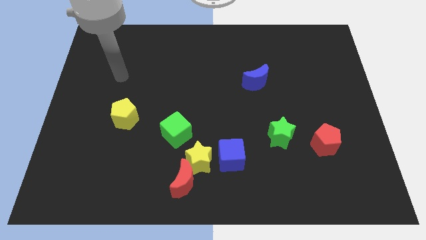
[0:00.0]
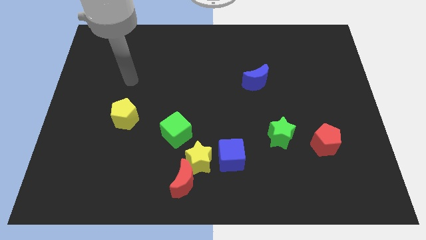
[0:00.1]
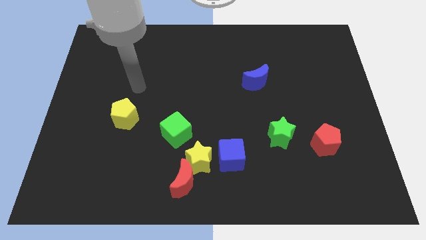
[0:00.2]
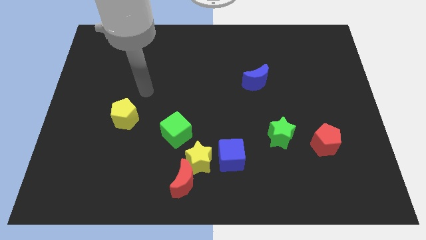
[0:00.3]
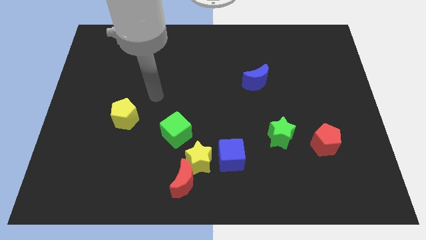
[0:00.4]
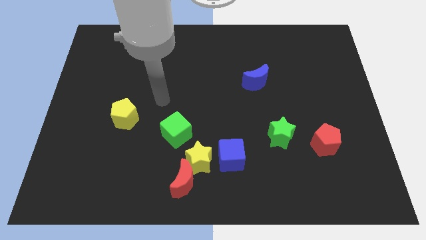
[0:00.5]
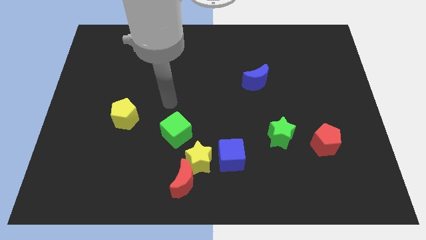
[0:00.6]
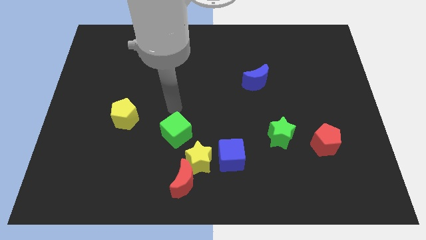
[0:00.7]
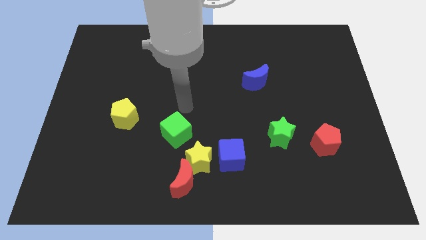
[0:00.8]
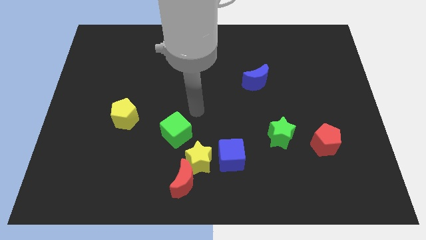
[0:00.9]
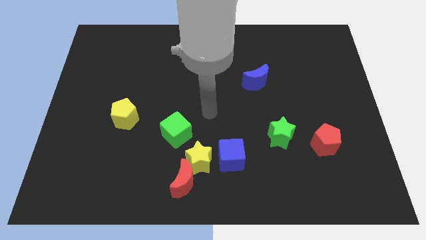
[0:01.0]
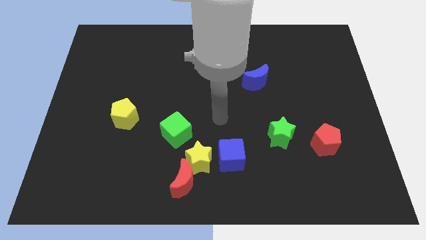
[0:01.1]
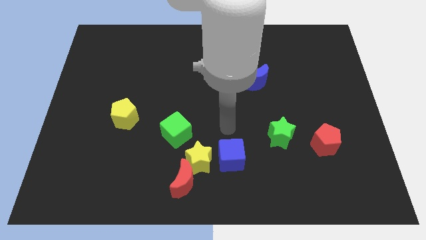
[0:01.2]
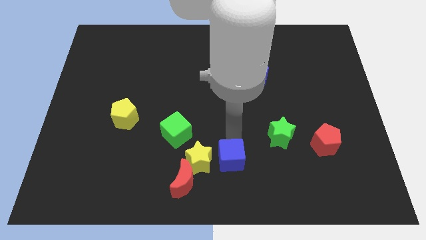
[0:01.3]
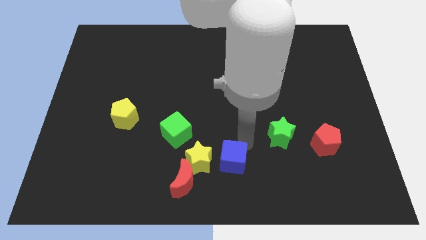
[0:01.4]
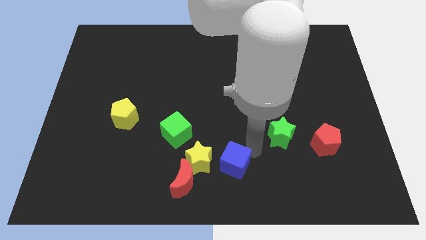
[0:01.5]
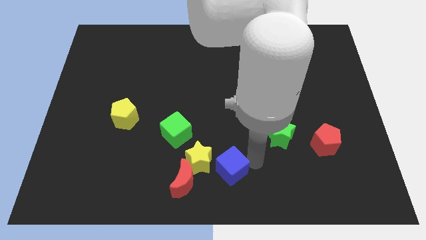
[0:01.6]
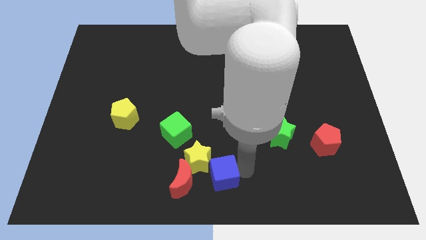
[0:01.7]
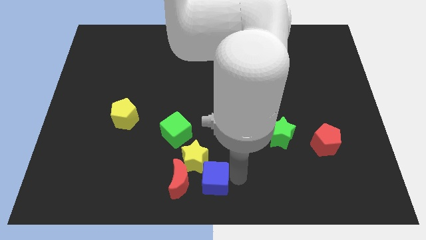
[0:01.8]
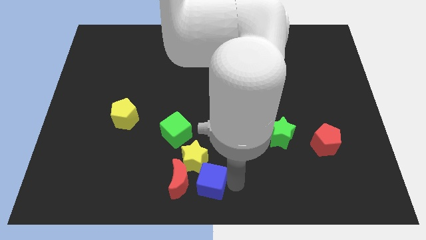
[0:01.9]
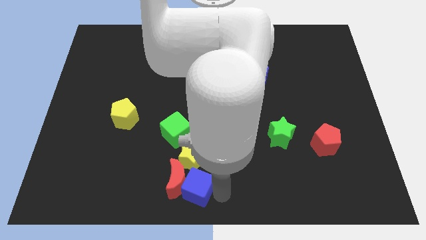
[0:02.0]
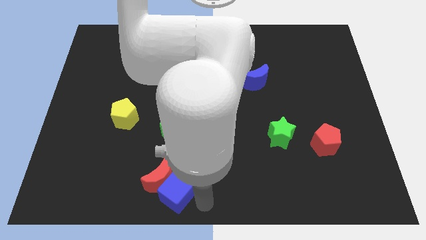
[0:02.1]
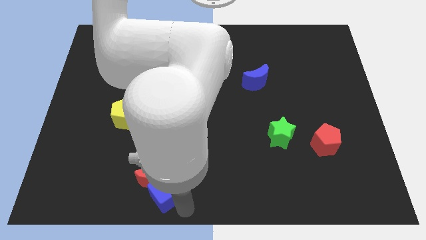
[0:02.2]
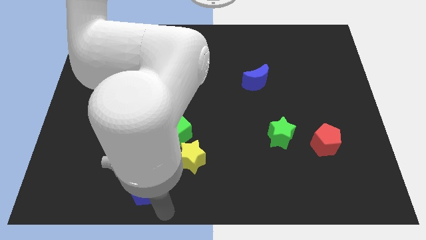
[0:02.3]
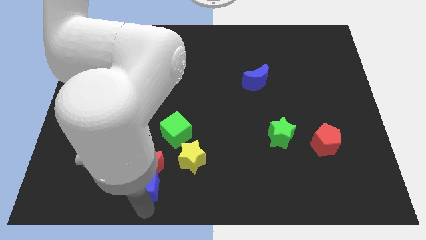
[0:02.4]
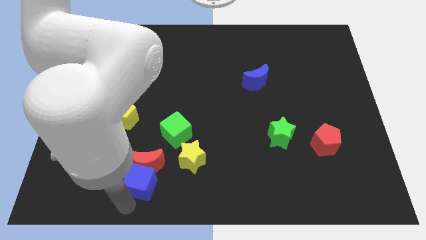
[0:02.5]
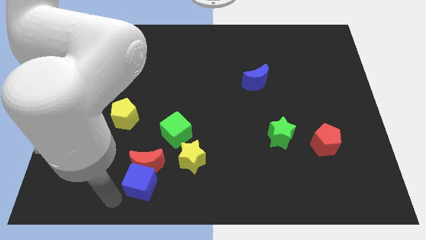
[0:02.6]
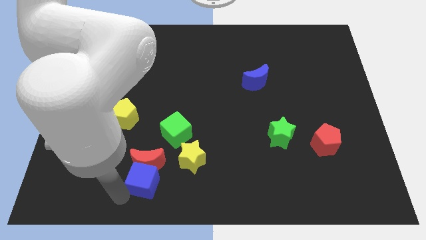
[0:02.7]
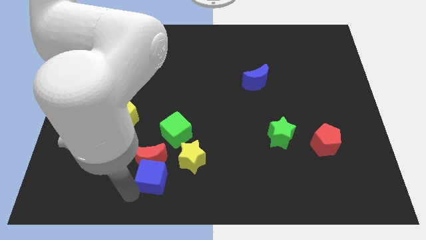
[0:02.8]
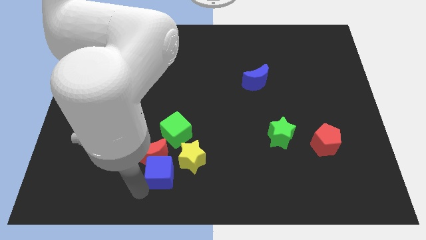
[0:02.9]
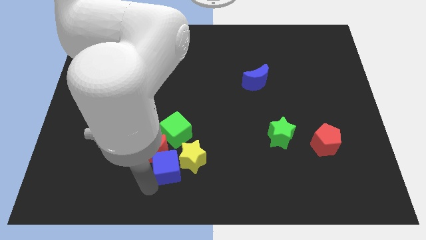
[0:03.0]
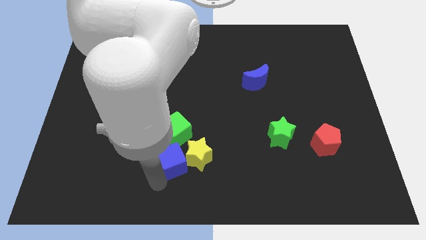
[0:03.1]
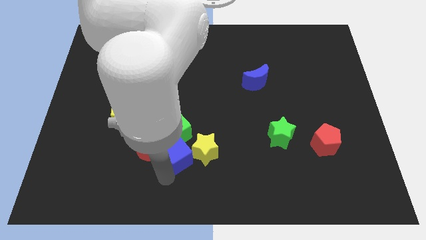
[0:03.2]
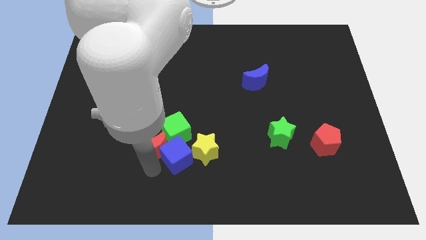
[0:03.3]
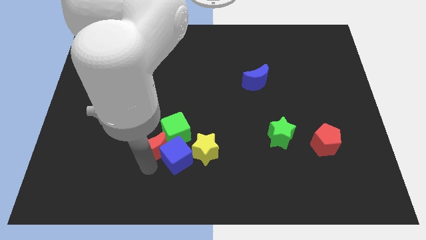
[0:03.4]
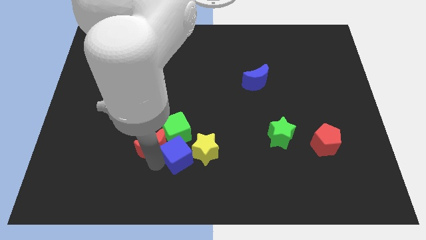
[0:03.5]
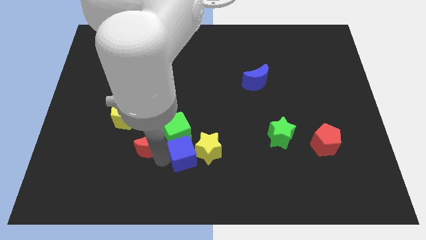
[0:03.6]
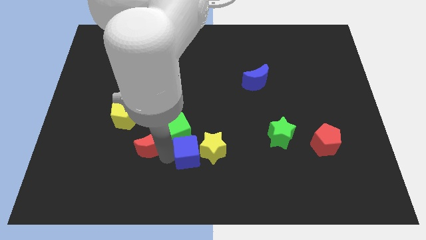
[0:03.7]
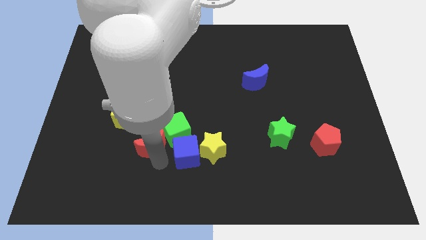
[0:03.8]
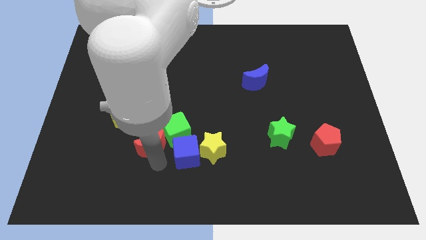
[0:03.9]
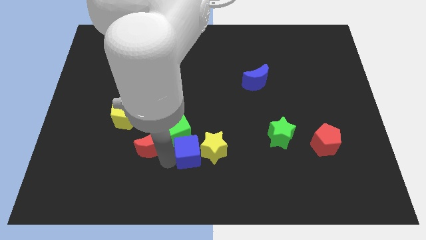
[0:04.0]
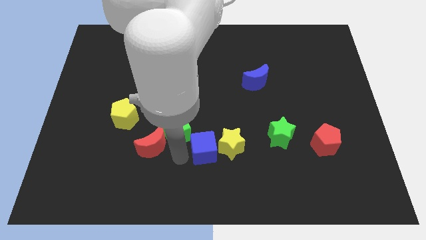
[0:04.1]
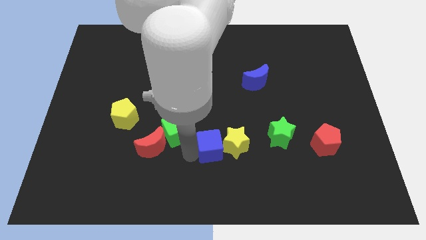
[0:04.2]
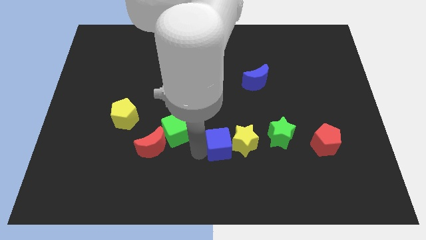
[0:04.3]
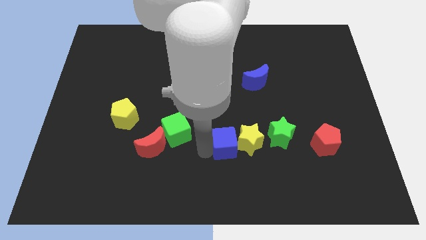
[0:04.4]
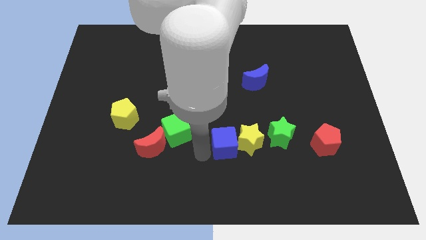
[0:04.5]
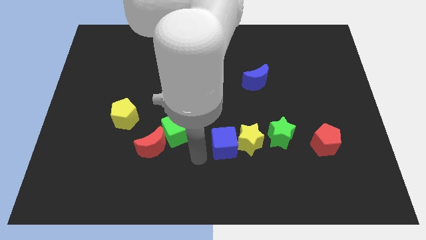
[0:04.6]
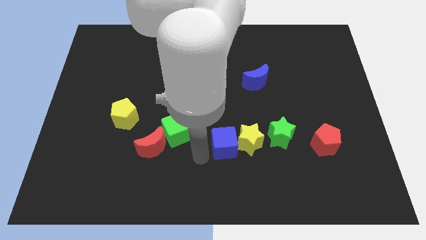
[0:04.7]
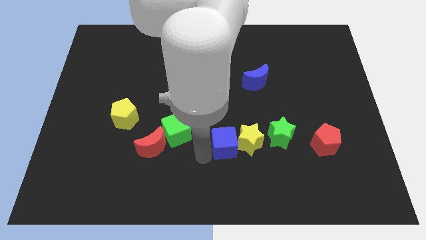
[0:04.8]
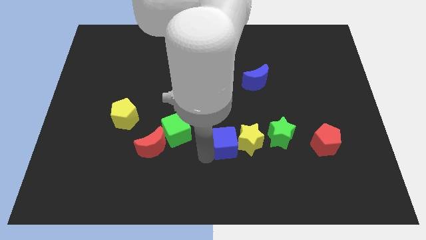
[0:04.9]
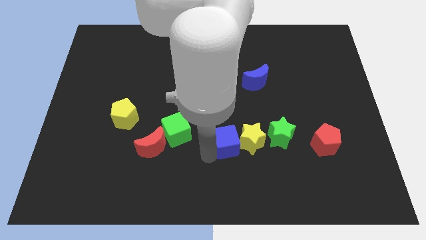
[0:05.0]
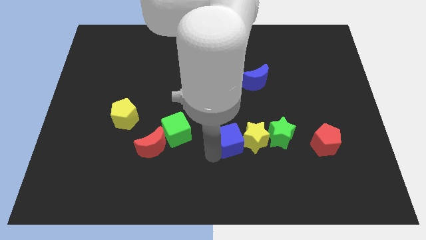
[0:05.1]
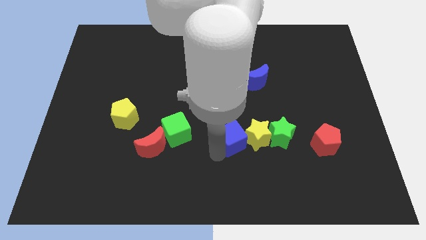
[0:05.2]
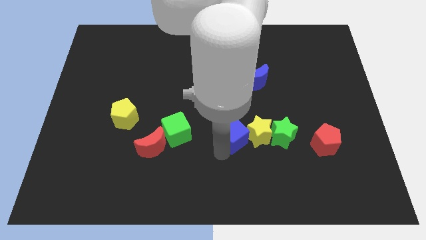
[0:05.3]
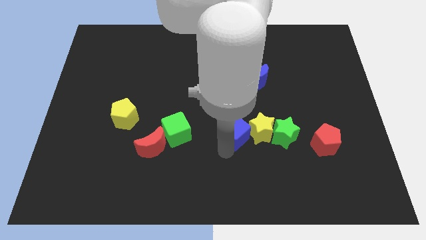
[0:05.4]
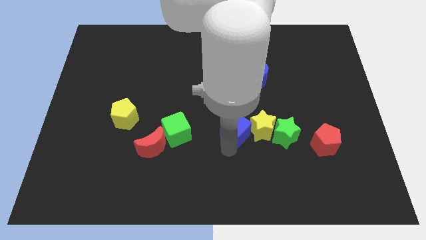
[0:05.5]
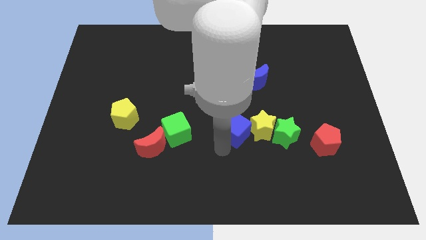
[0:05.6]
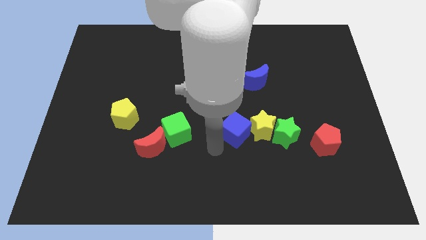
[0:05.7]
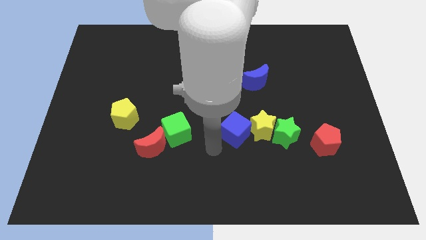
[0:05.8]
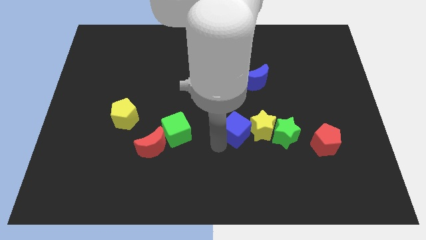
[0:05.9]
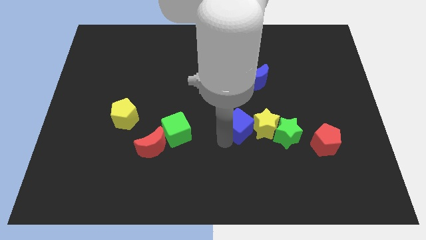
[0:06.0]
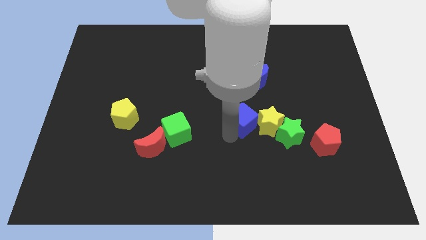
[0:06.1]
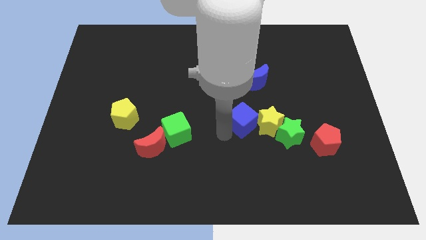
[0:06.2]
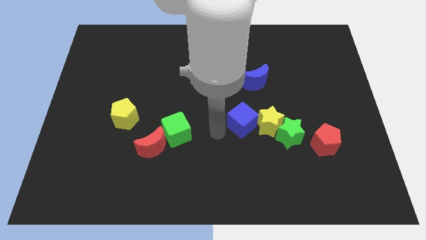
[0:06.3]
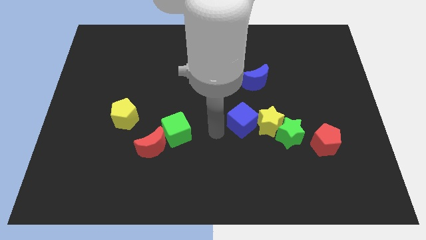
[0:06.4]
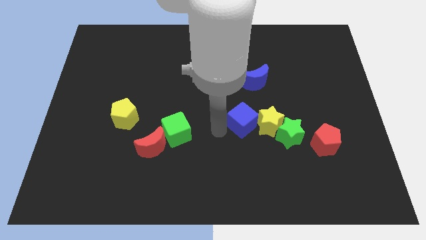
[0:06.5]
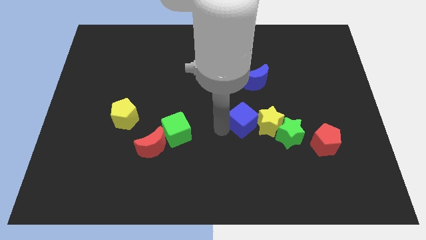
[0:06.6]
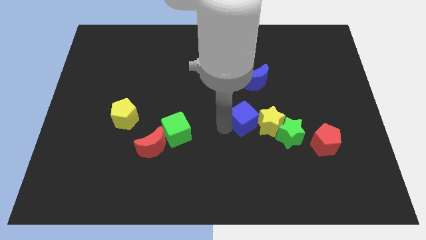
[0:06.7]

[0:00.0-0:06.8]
slide the blue cube to the top left side of the green star

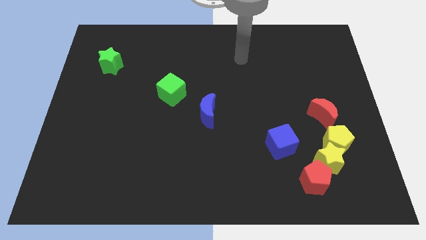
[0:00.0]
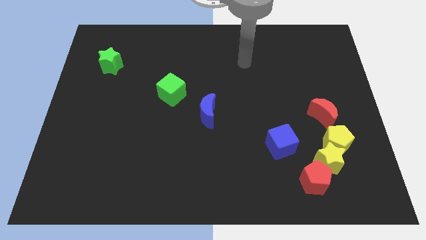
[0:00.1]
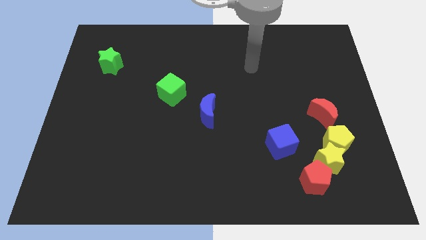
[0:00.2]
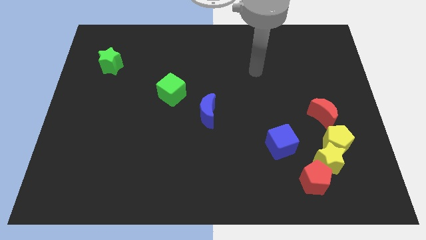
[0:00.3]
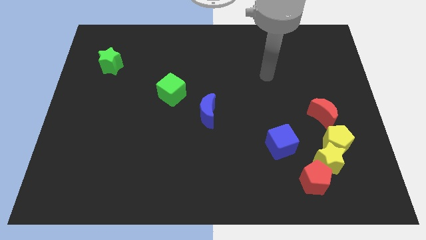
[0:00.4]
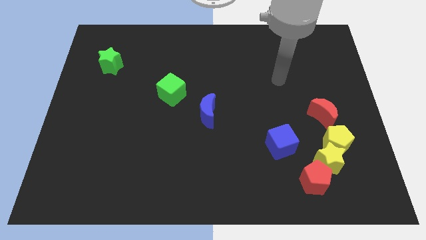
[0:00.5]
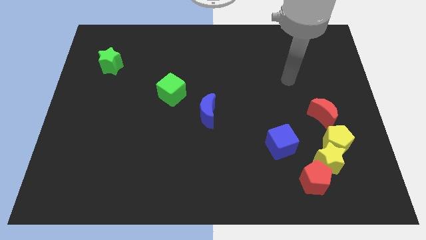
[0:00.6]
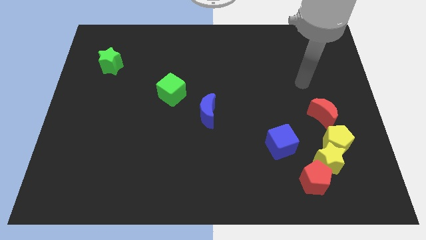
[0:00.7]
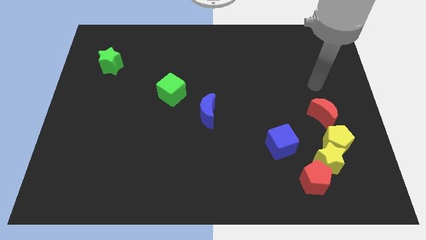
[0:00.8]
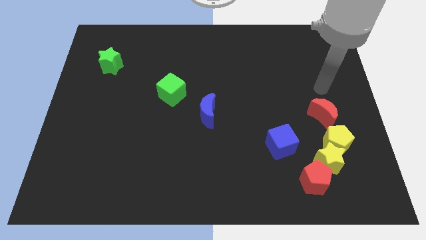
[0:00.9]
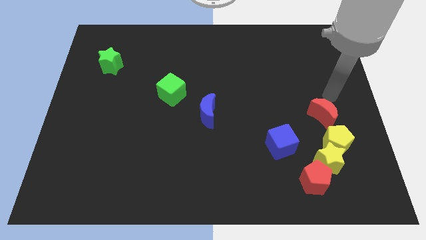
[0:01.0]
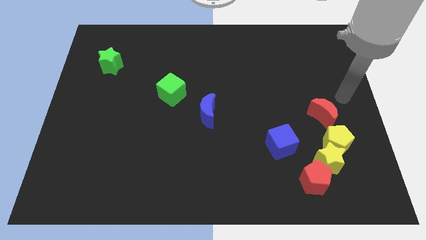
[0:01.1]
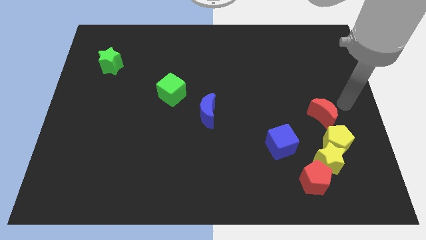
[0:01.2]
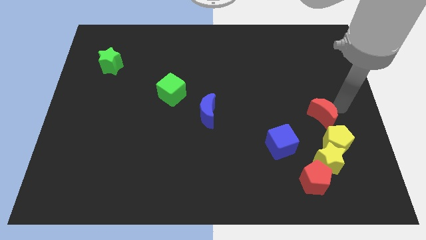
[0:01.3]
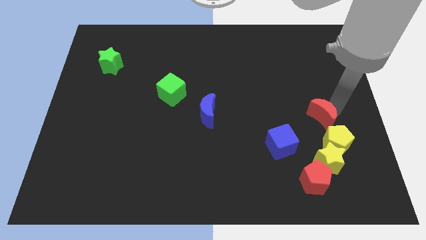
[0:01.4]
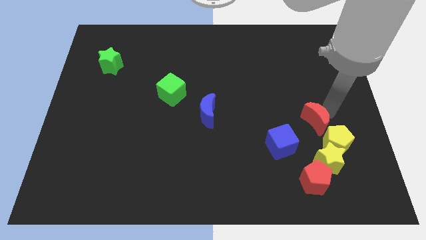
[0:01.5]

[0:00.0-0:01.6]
move the red moon to the top right side of the blue cube
